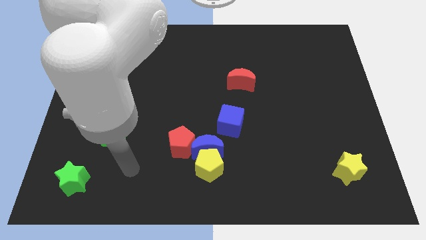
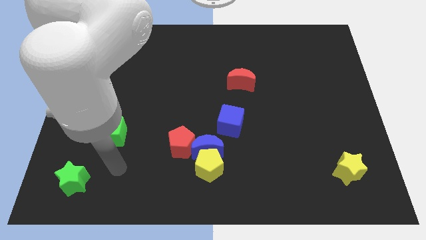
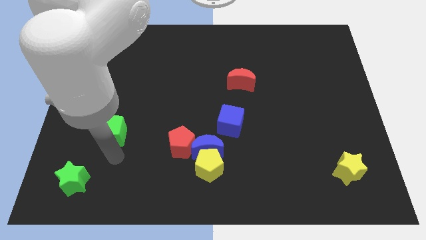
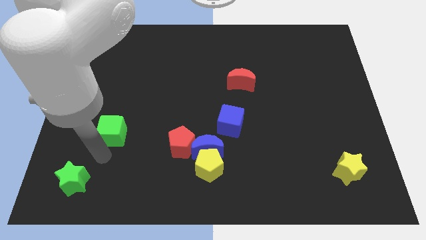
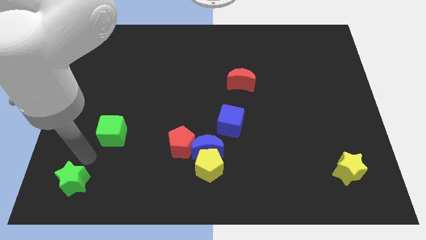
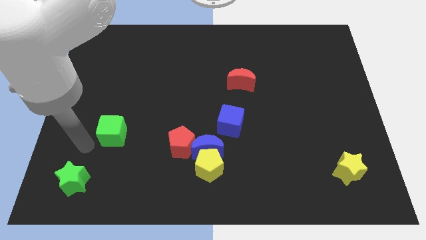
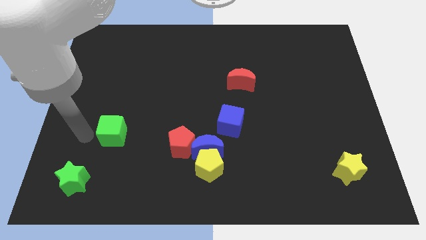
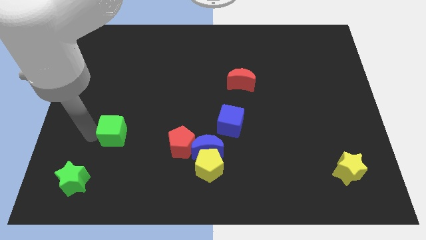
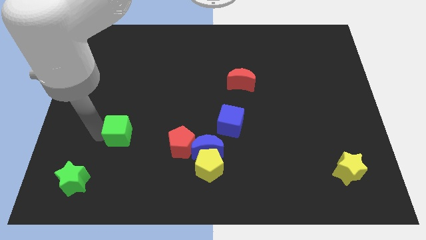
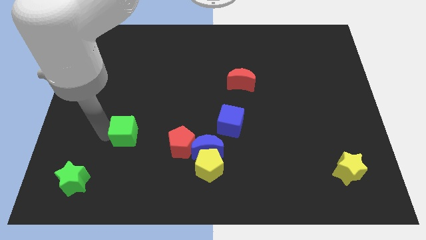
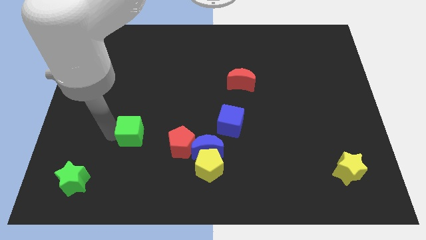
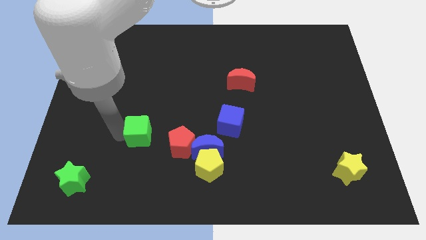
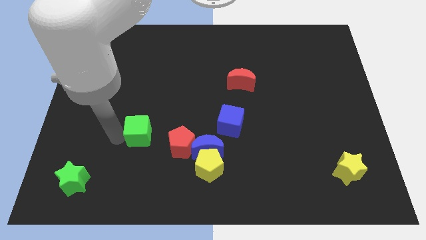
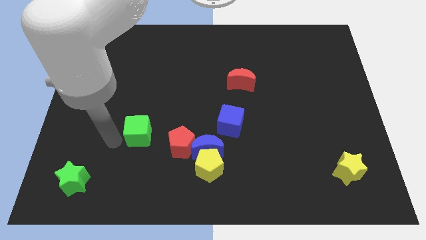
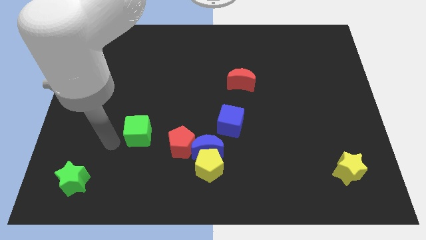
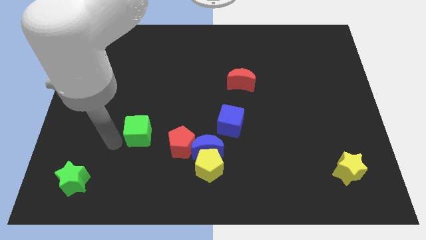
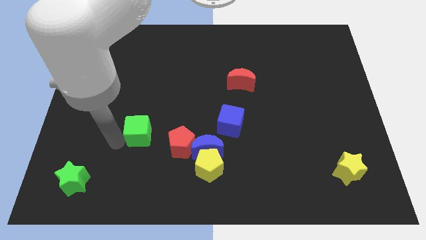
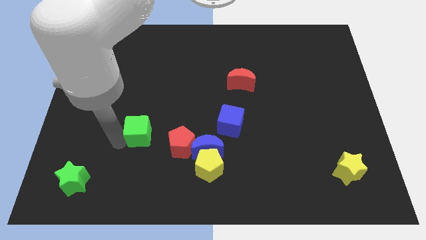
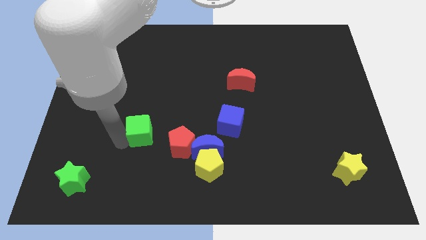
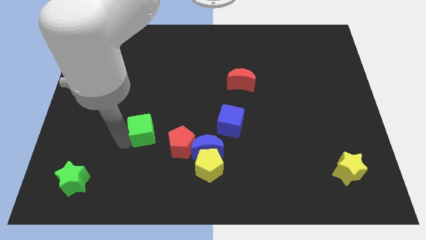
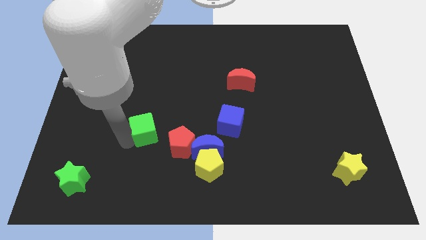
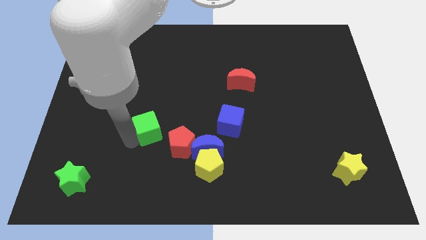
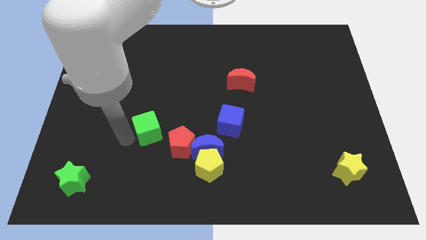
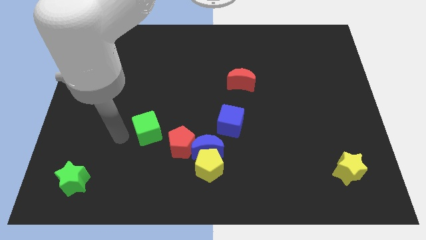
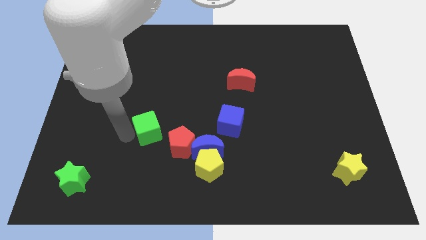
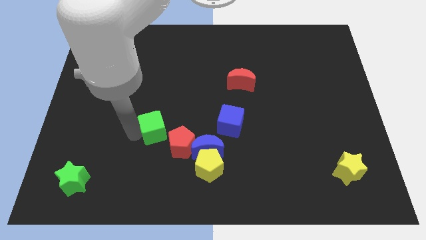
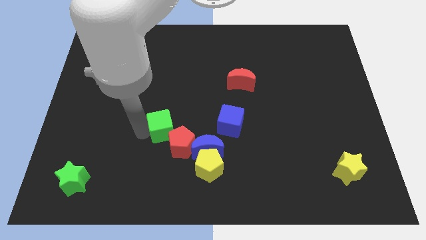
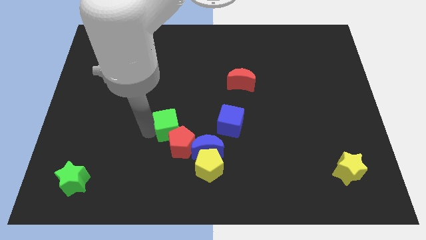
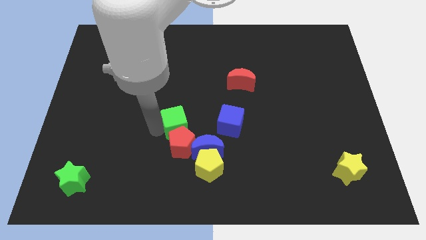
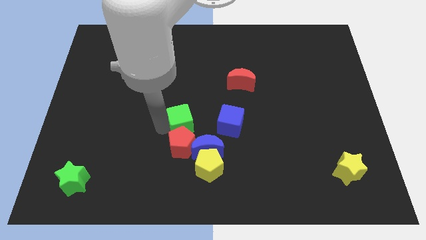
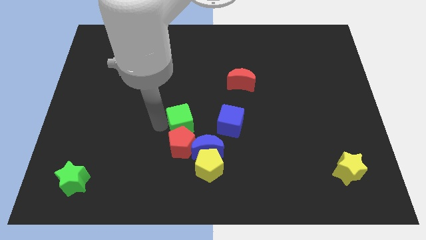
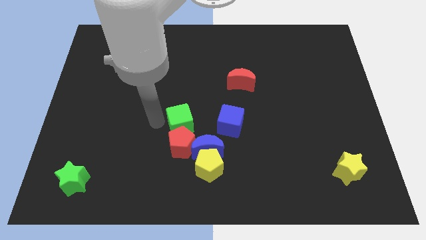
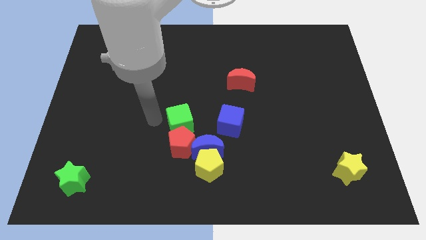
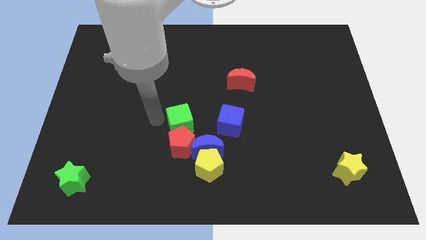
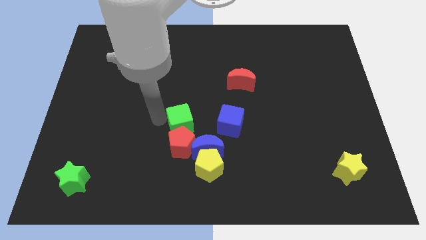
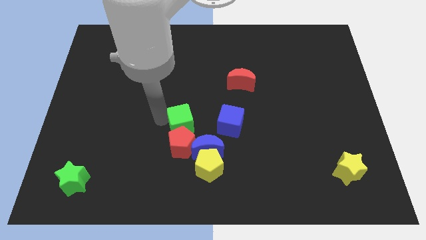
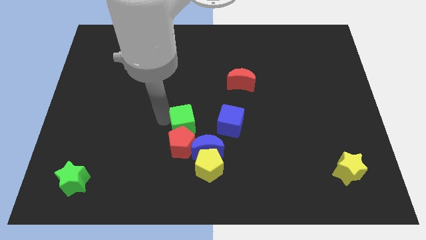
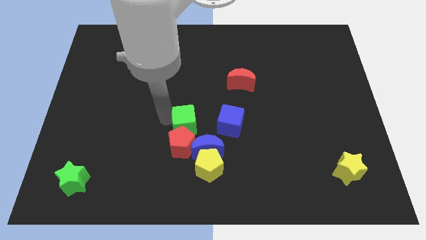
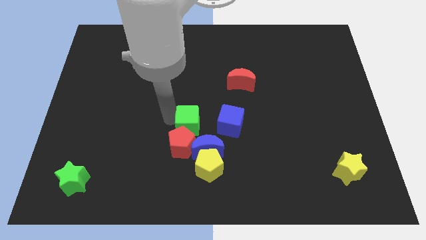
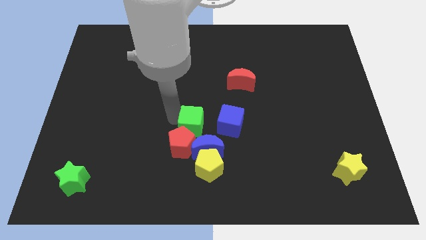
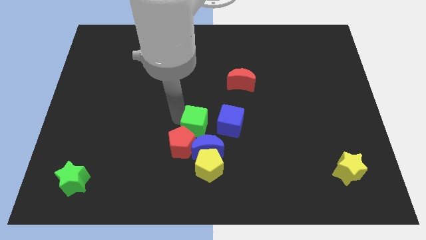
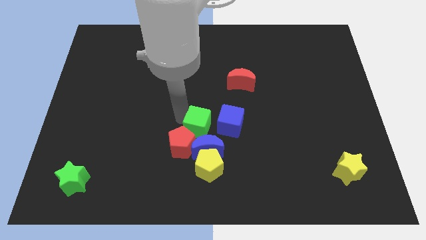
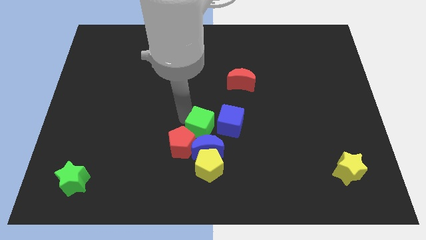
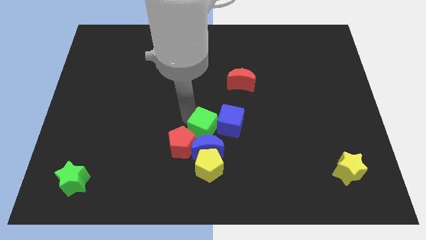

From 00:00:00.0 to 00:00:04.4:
push the green cube to the right

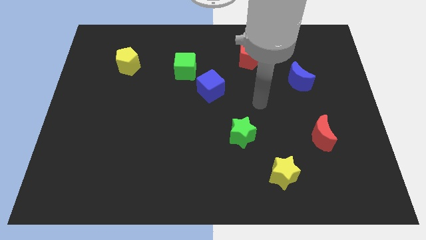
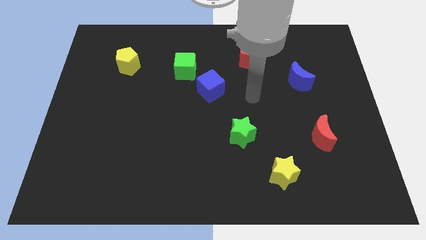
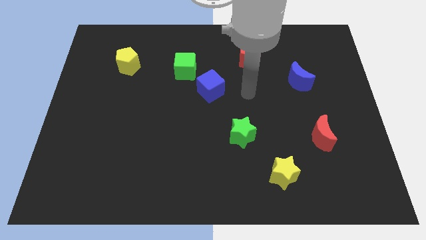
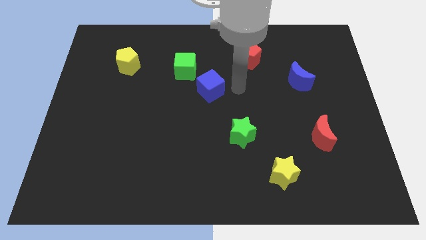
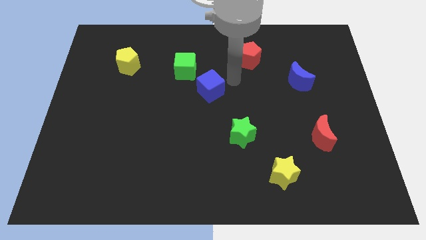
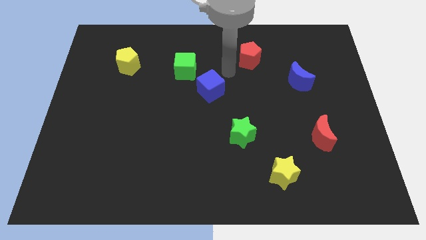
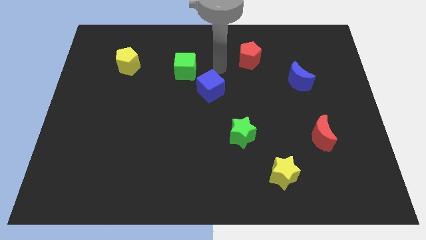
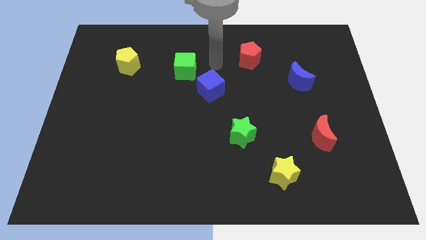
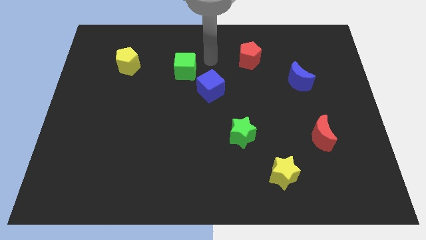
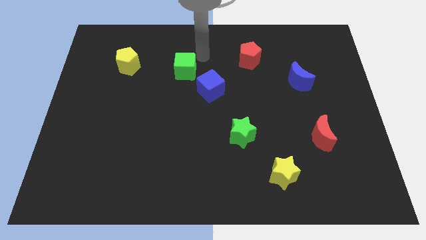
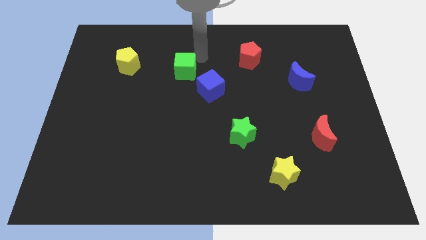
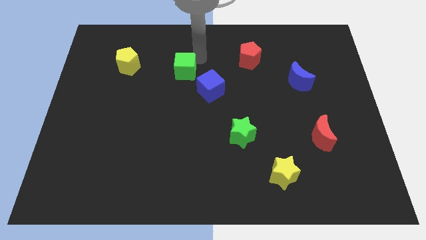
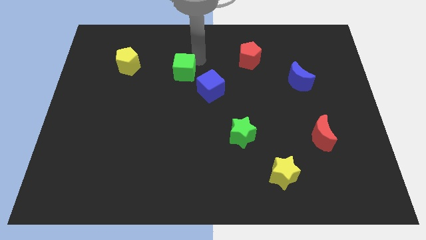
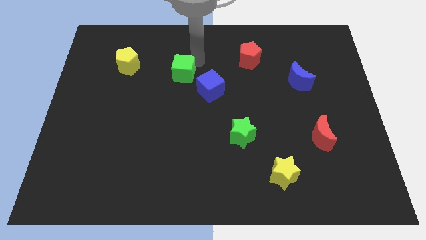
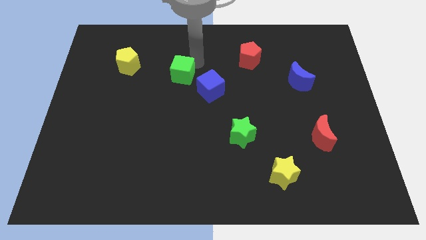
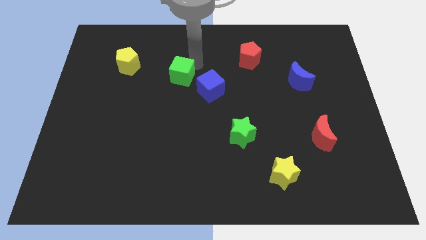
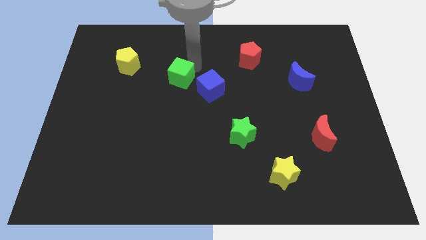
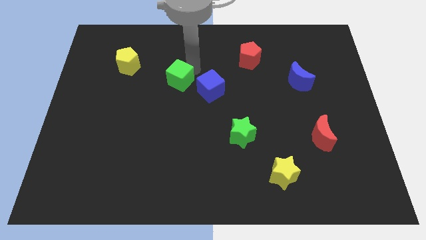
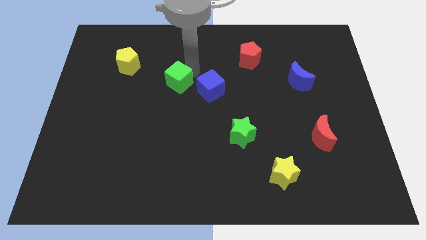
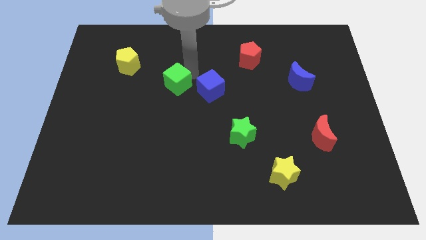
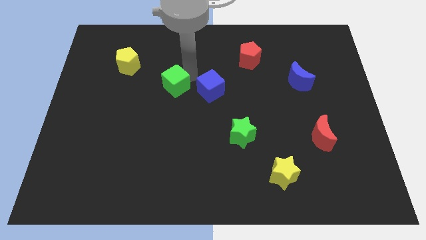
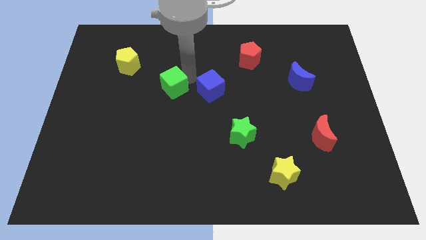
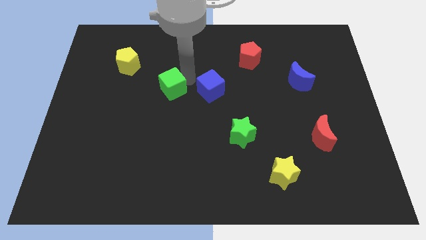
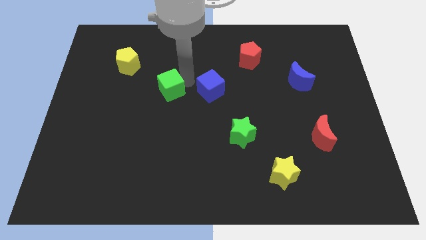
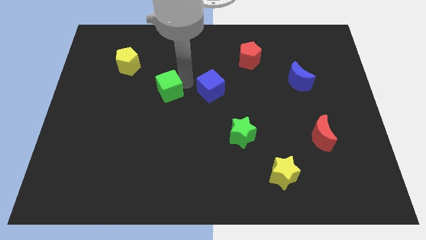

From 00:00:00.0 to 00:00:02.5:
slightly slide the green cube downwards and to the left diagonally

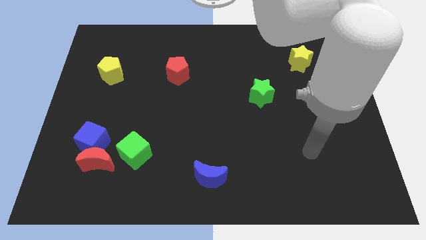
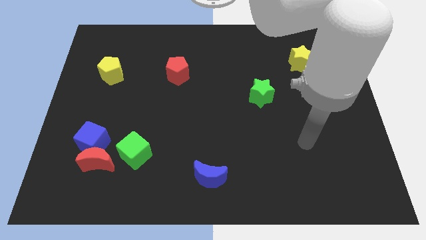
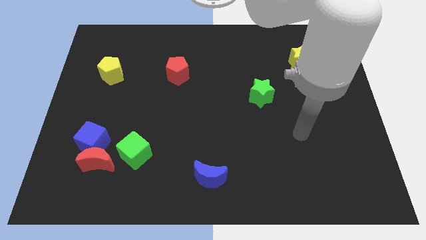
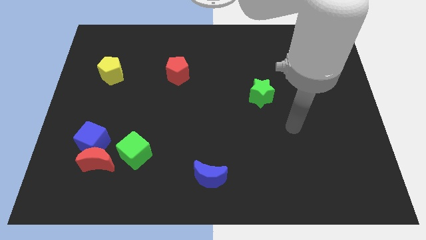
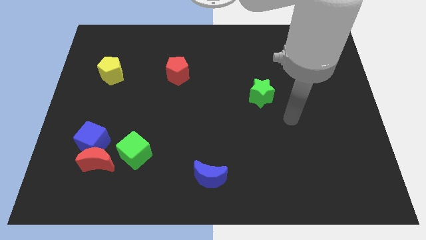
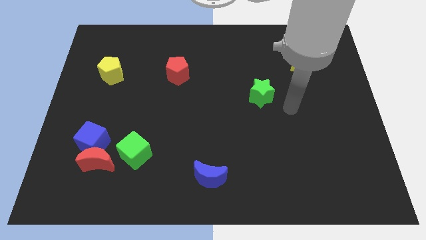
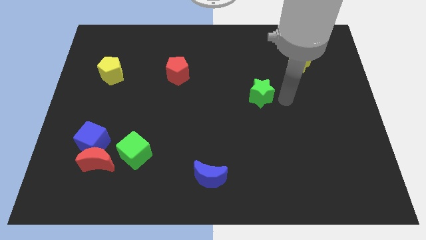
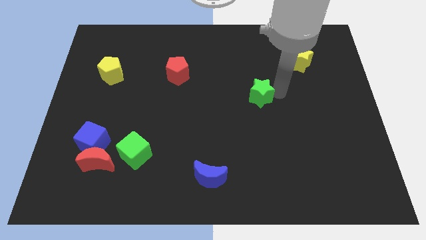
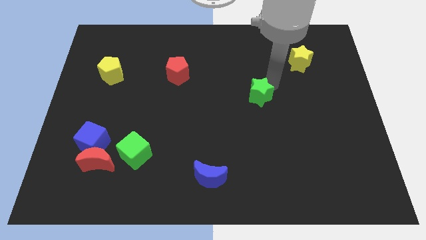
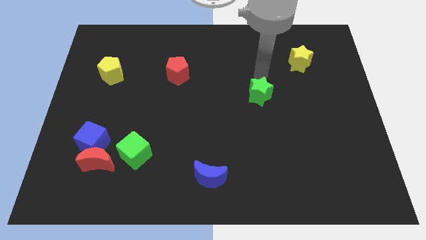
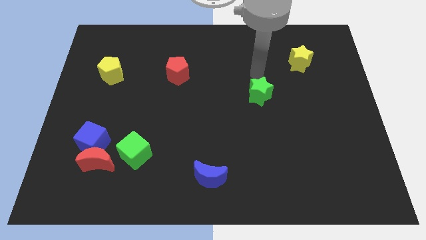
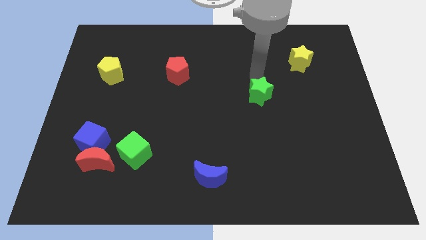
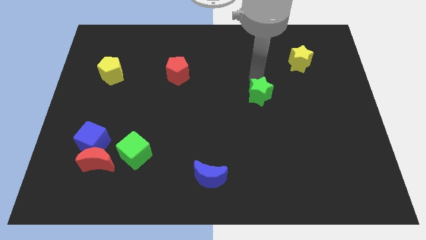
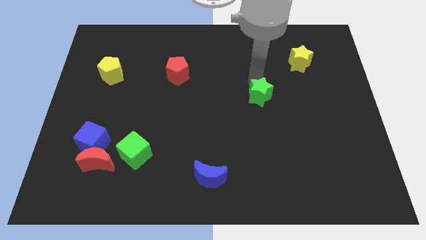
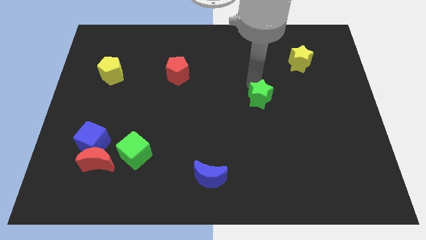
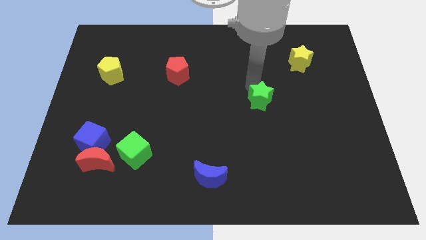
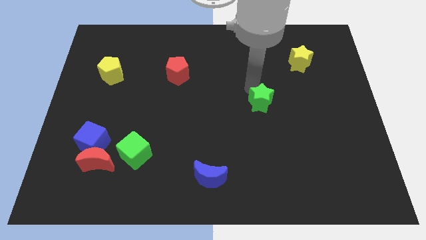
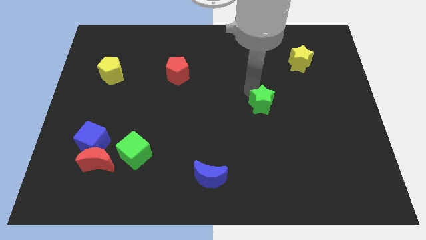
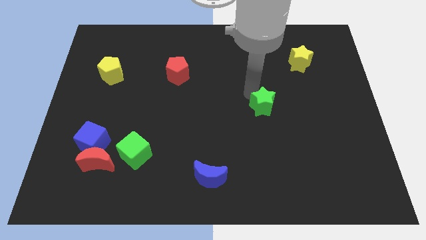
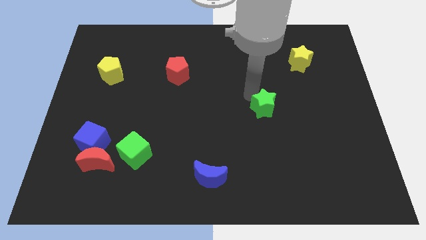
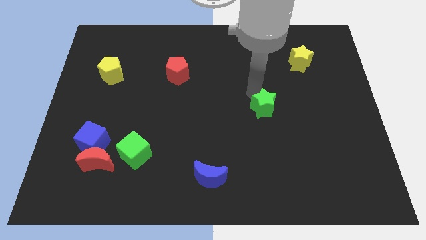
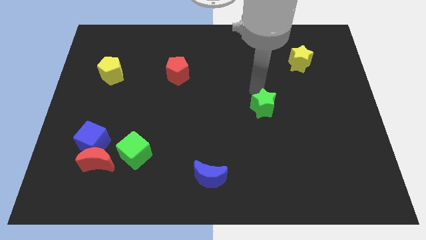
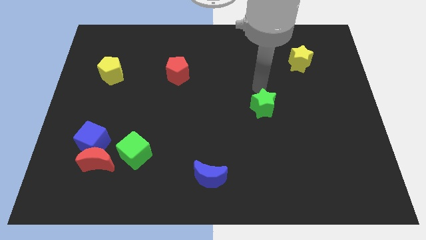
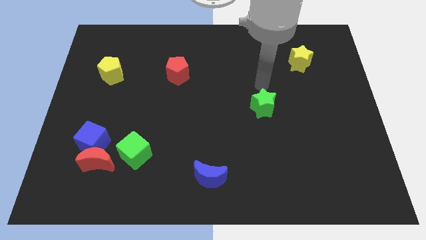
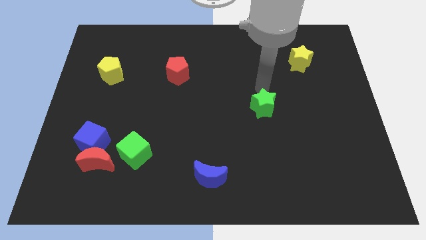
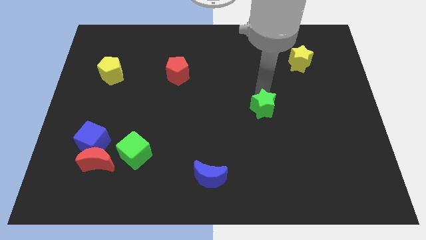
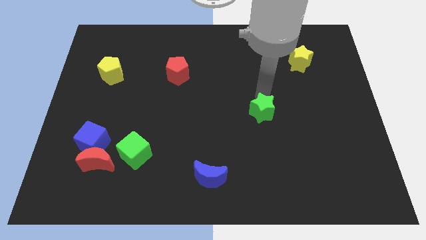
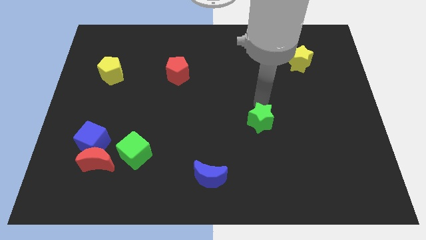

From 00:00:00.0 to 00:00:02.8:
slide the green star somewhat down
